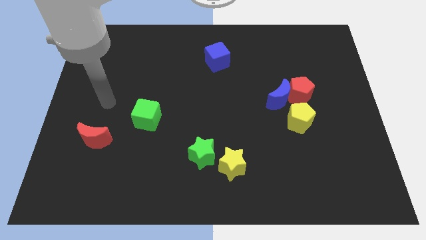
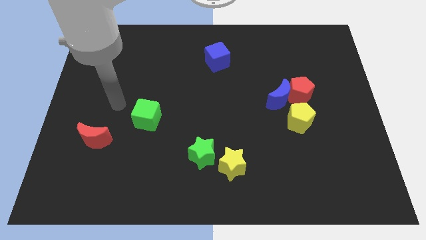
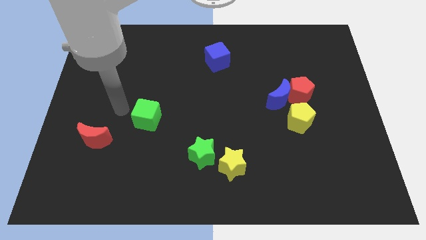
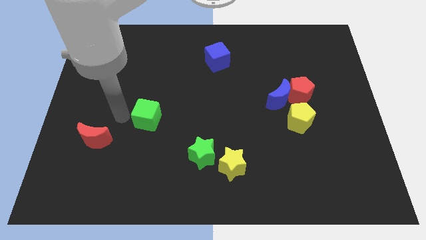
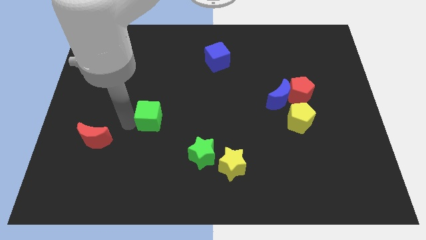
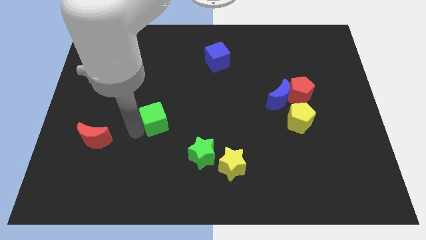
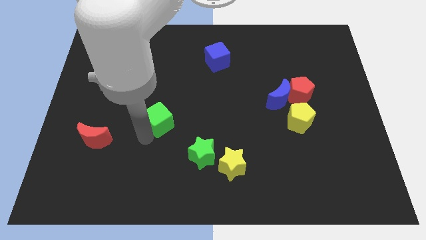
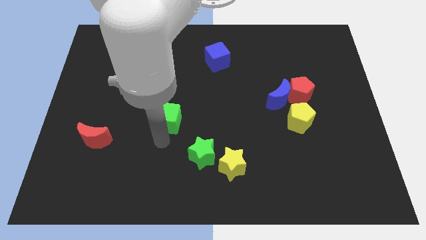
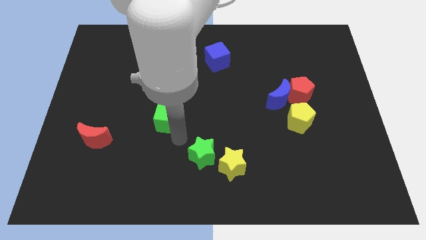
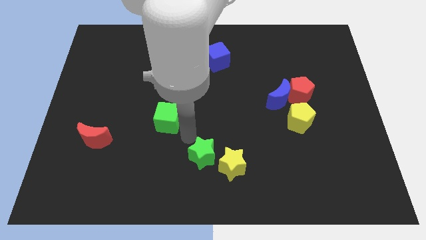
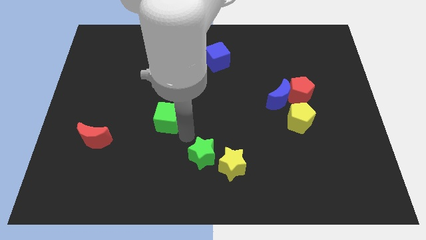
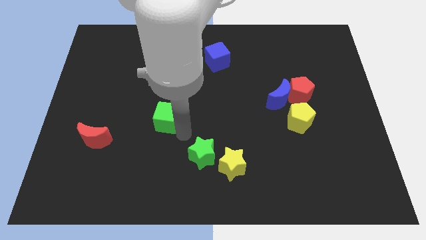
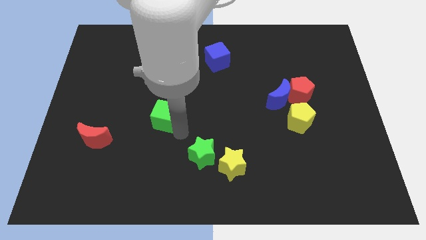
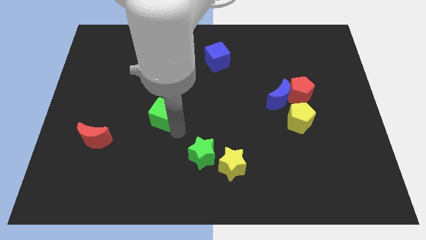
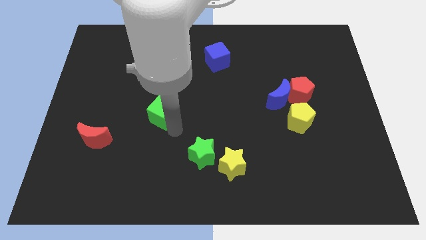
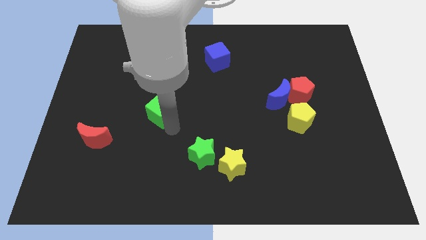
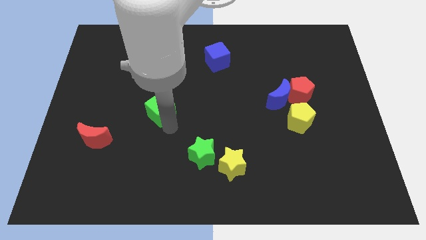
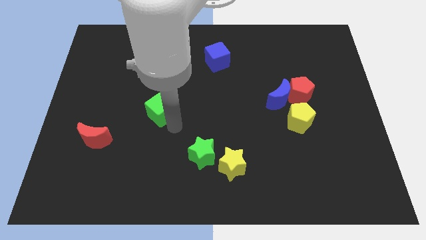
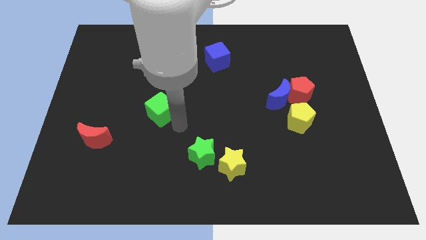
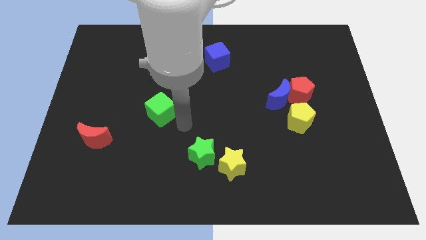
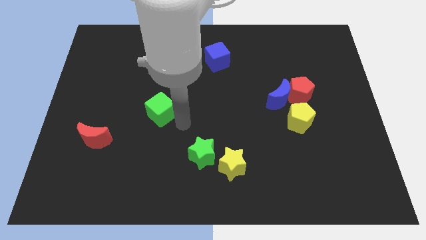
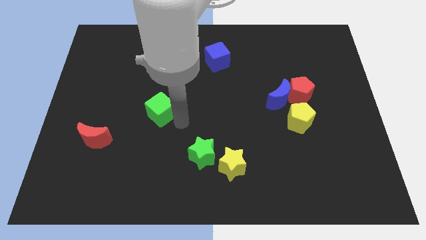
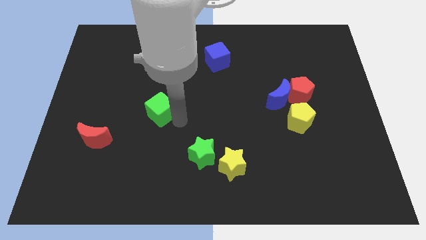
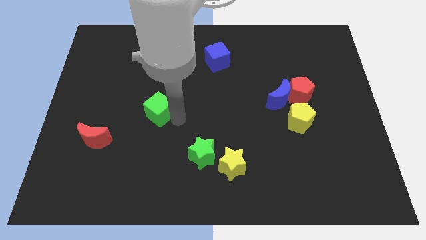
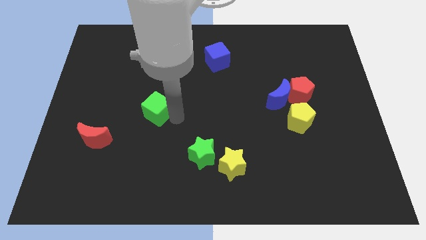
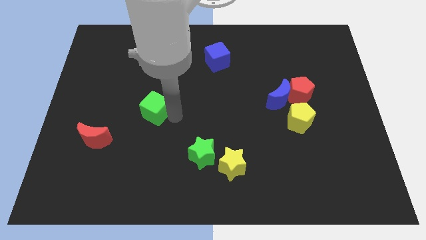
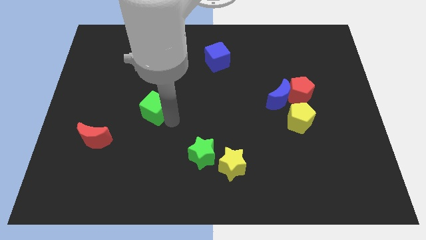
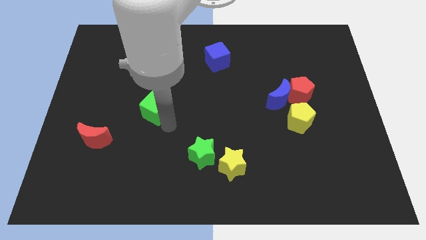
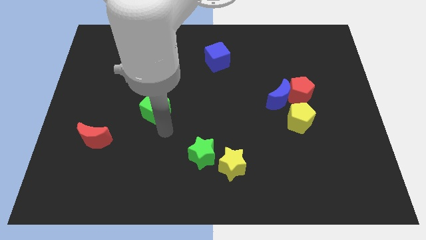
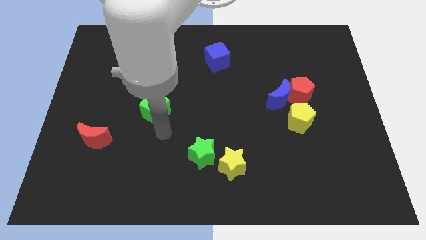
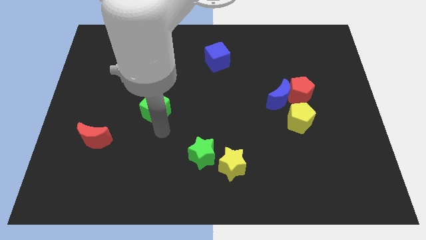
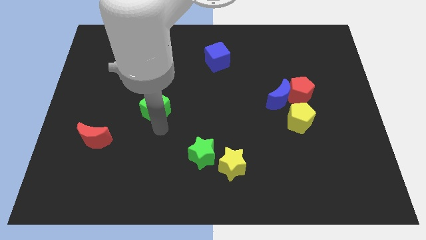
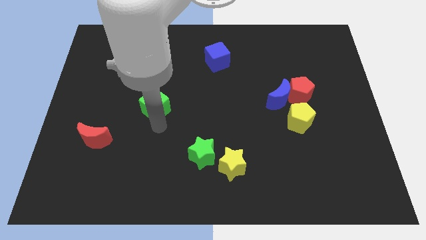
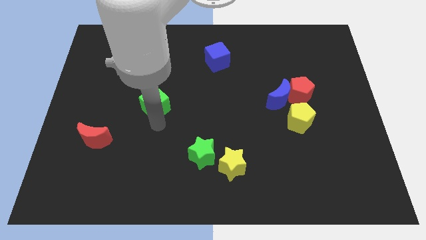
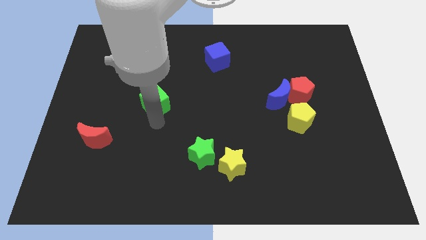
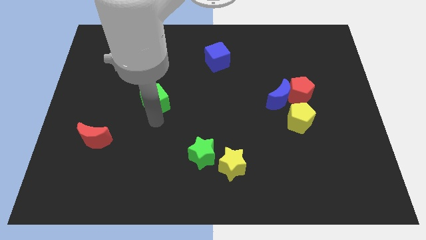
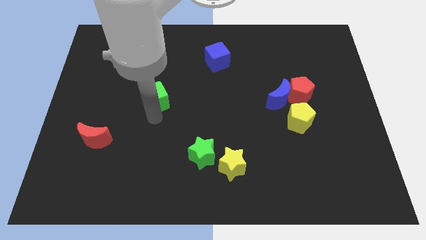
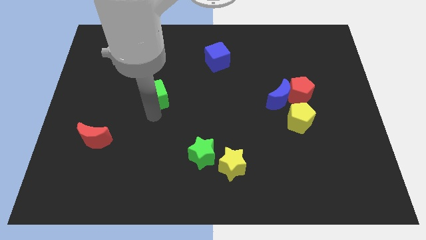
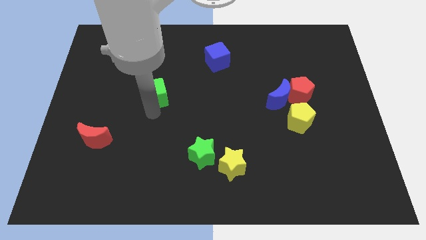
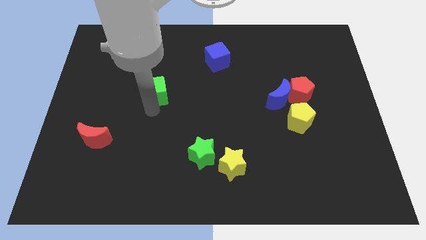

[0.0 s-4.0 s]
slide the green cube up somewhat

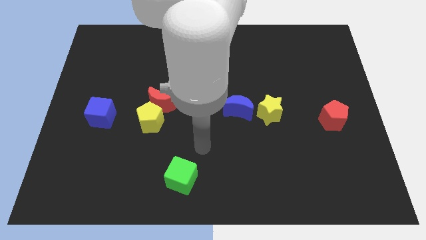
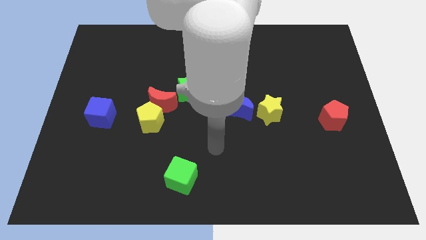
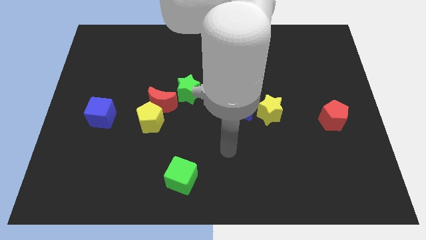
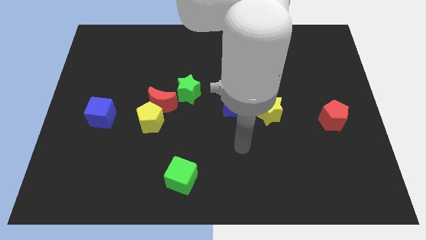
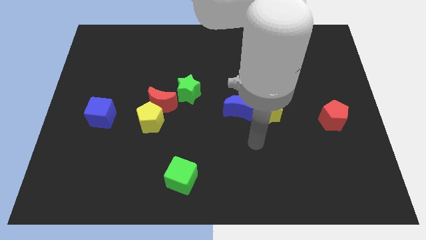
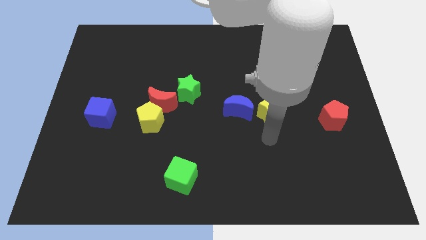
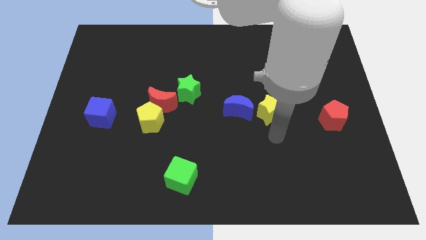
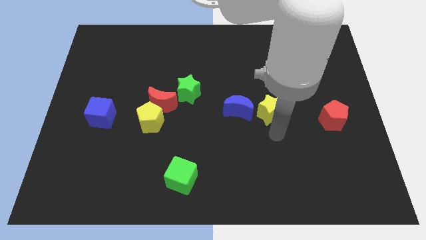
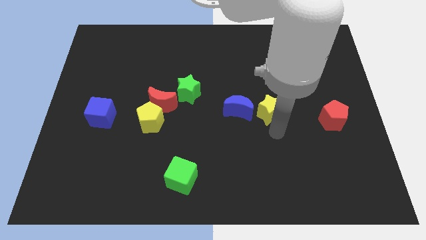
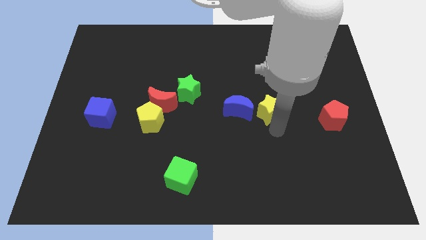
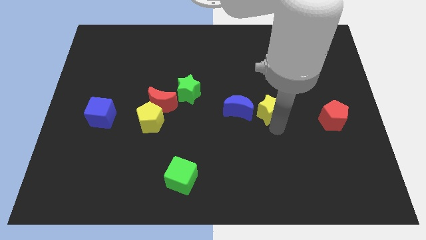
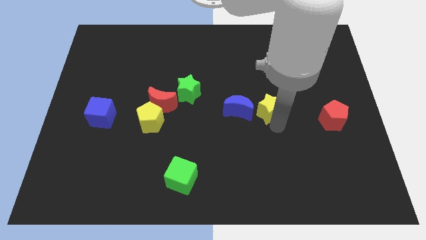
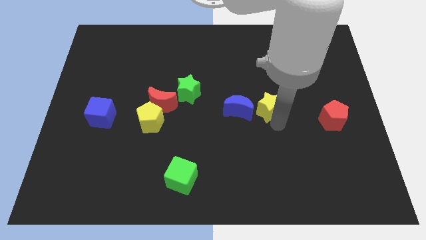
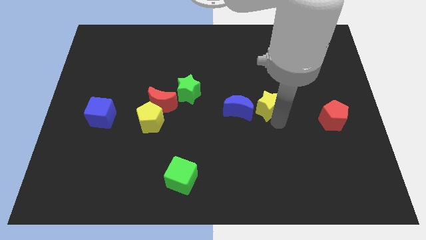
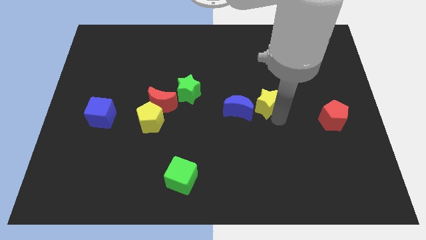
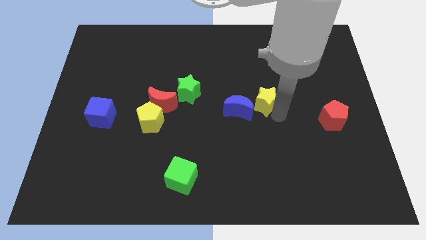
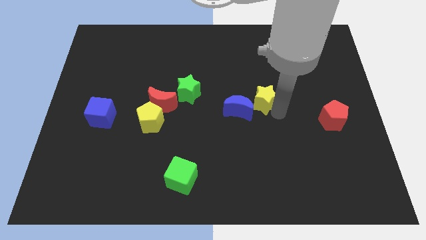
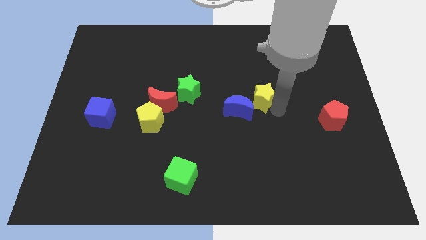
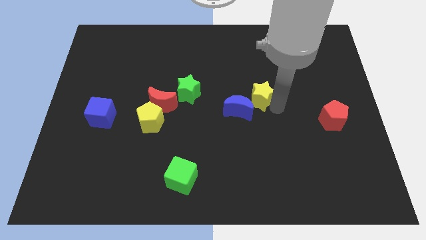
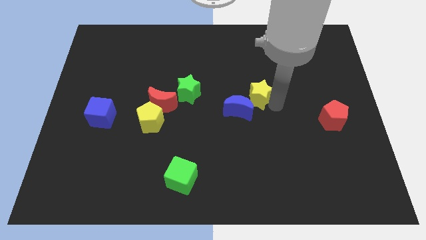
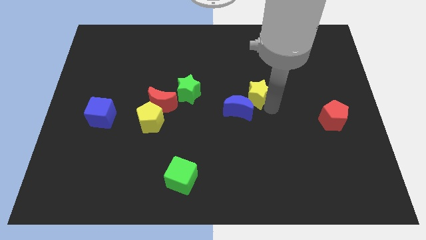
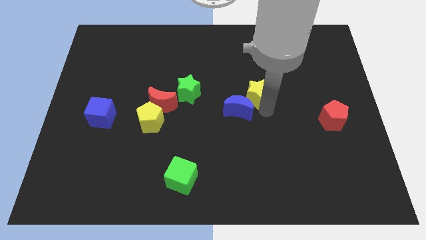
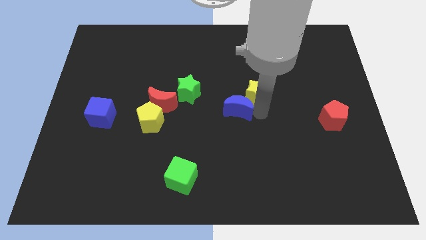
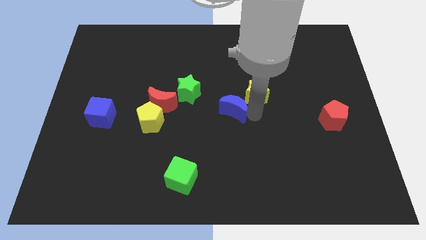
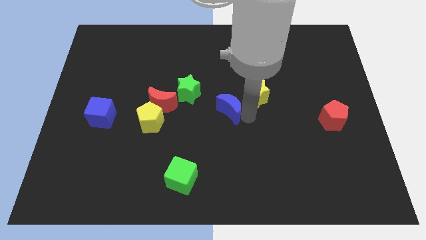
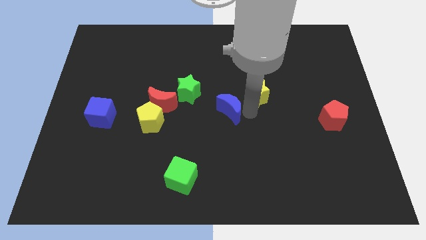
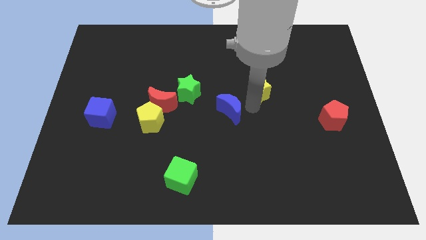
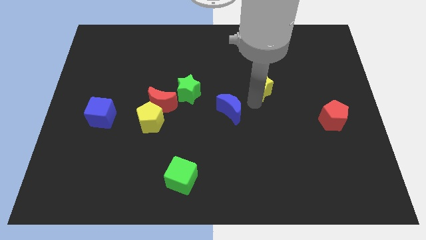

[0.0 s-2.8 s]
slightly slide the yellow star up

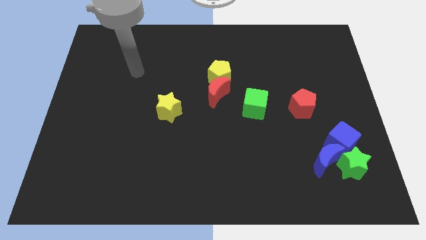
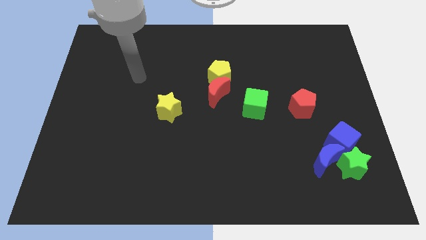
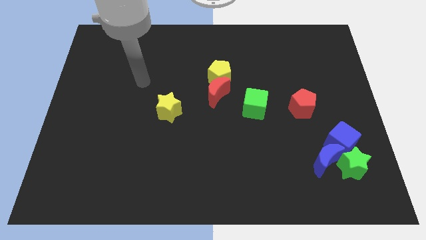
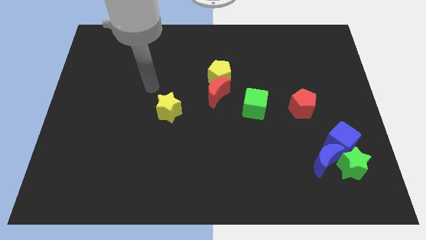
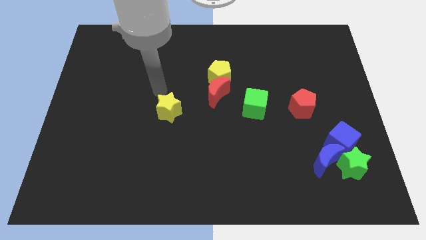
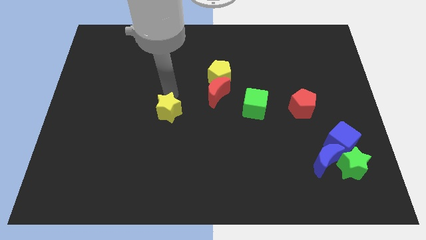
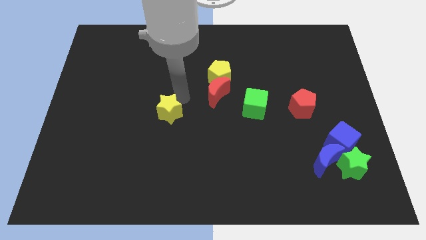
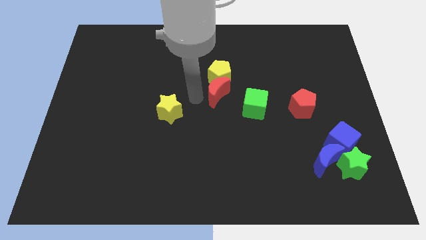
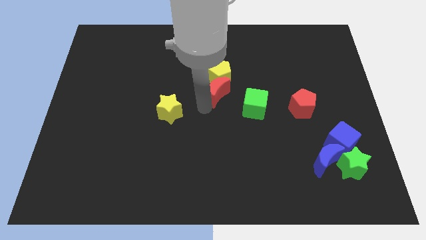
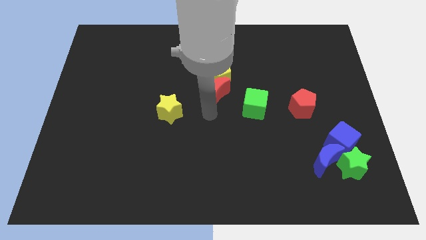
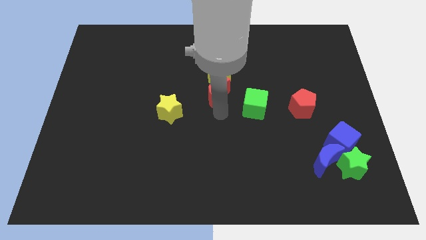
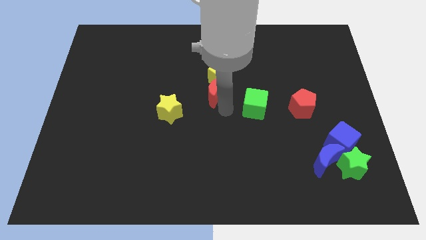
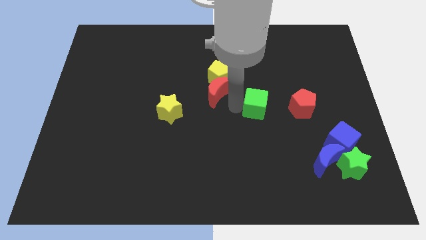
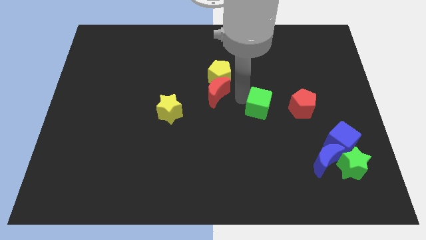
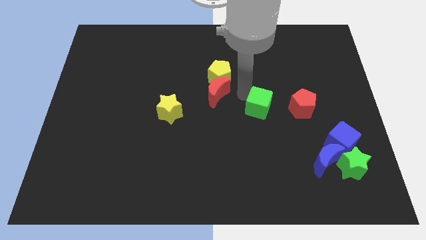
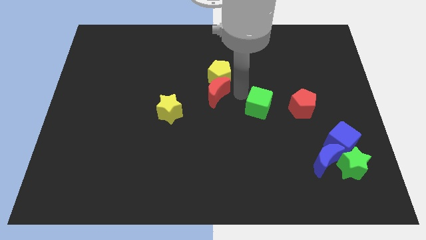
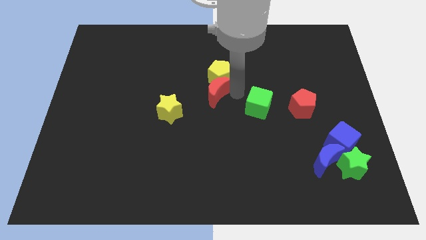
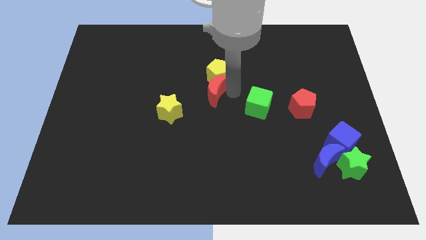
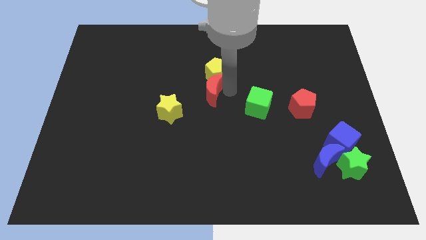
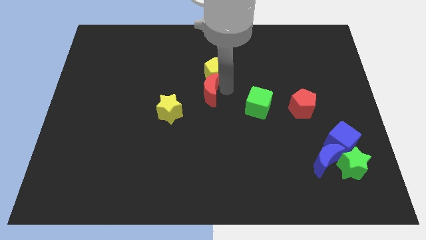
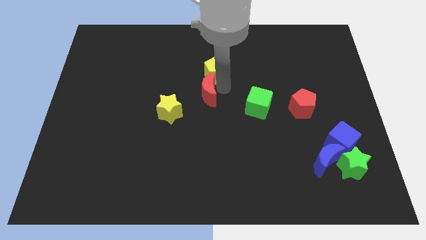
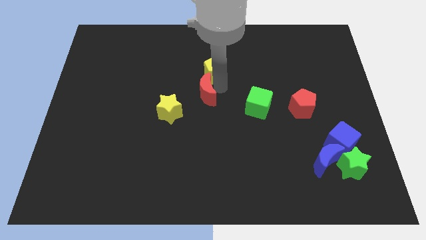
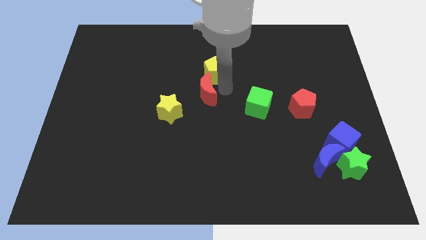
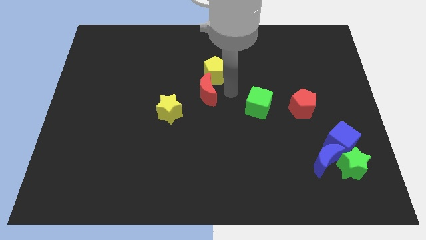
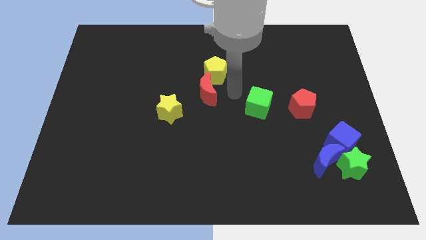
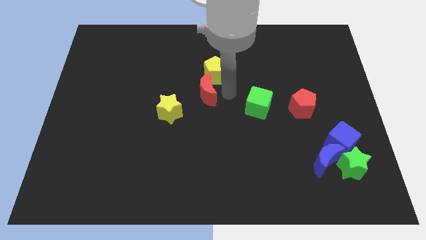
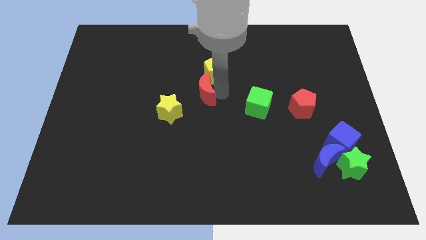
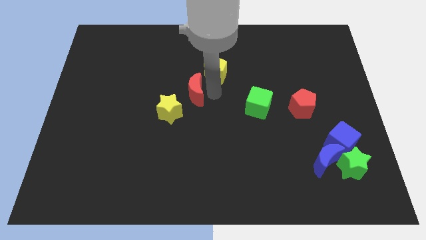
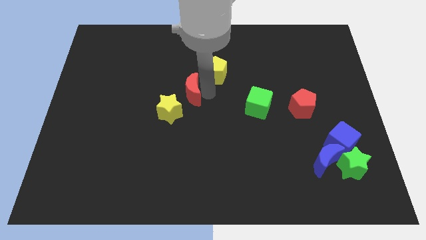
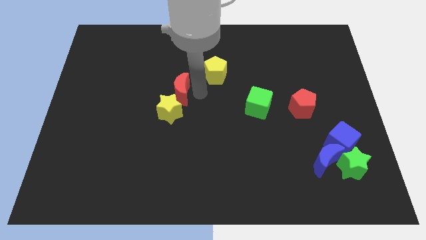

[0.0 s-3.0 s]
slightly slide the red moon to the left
